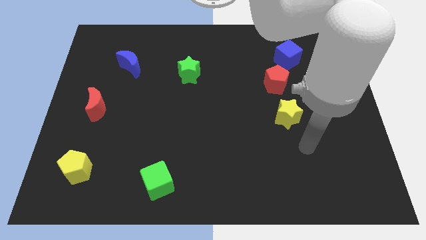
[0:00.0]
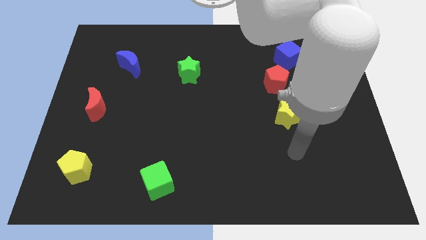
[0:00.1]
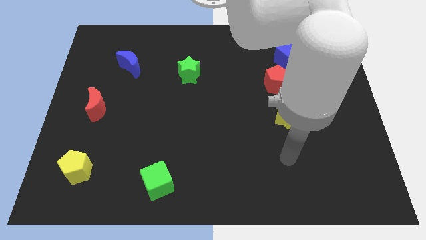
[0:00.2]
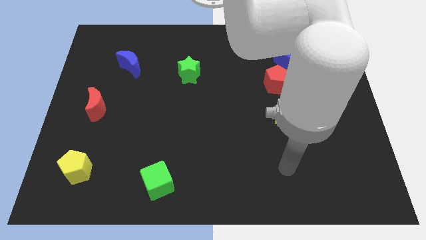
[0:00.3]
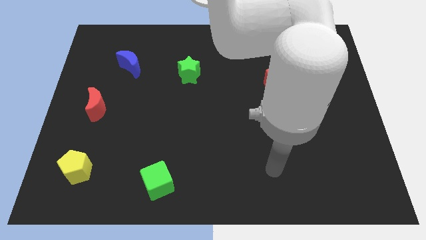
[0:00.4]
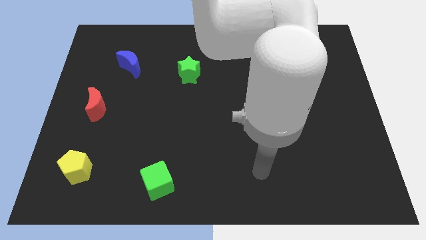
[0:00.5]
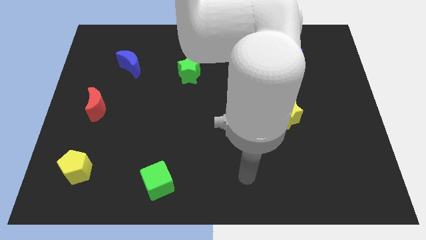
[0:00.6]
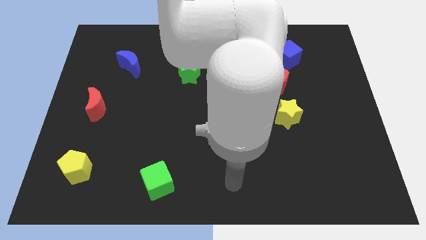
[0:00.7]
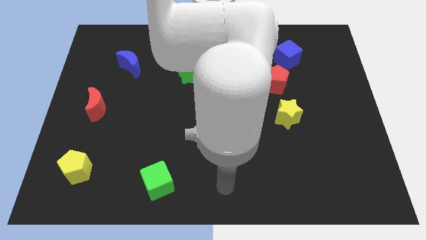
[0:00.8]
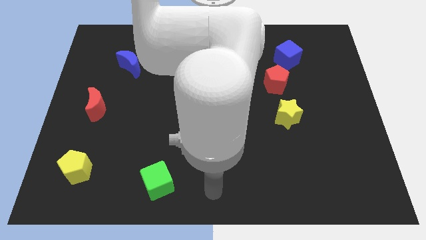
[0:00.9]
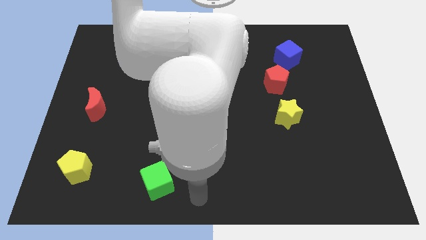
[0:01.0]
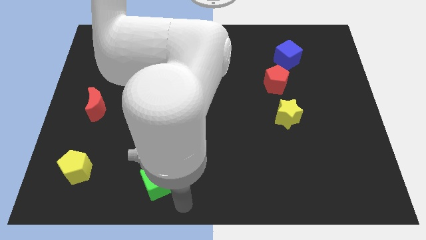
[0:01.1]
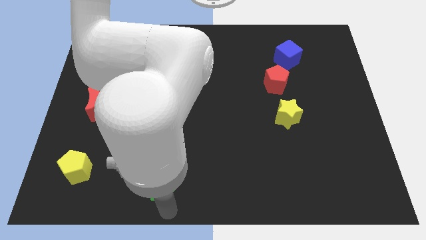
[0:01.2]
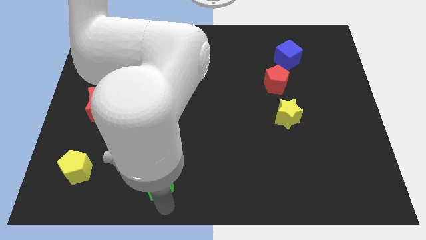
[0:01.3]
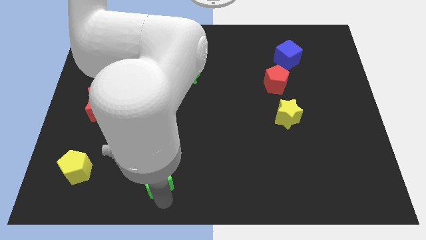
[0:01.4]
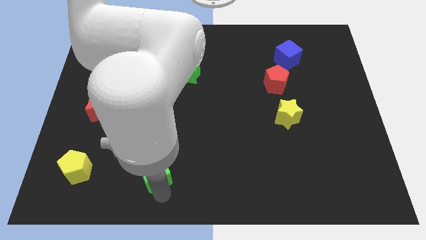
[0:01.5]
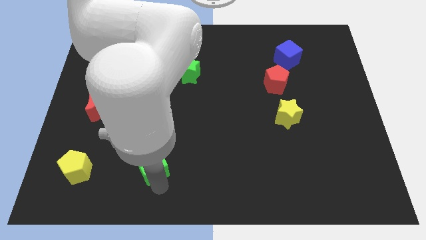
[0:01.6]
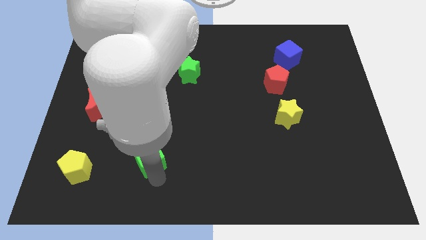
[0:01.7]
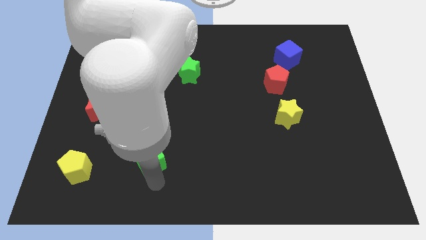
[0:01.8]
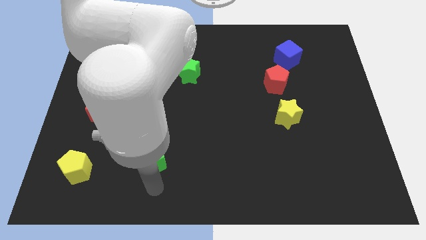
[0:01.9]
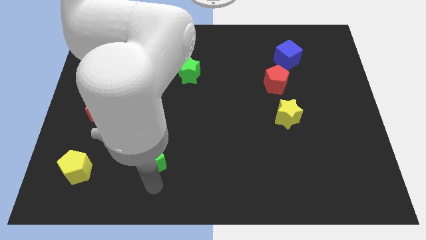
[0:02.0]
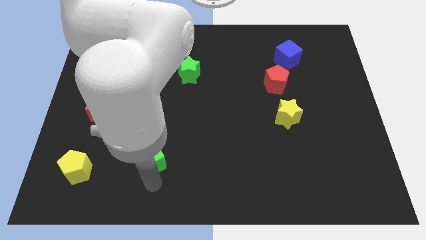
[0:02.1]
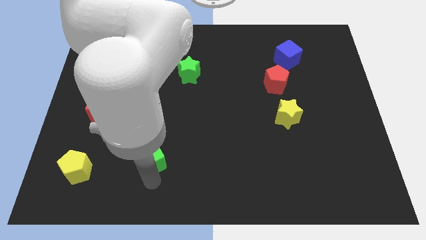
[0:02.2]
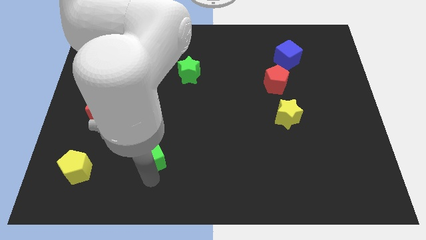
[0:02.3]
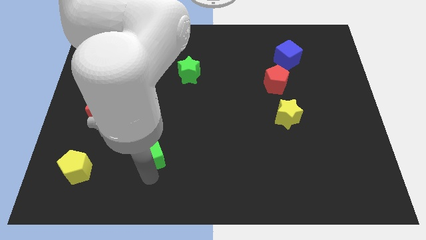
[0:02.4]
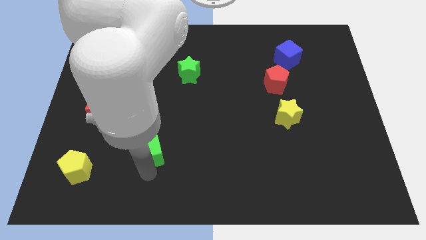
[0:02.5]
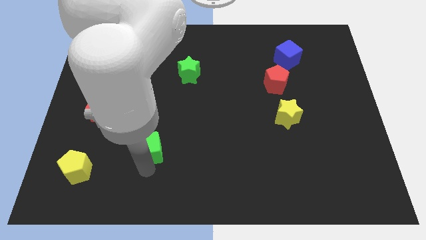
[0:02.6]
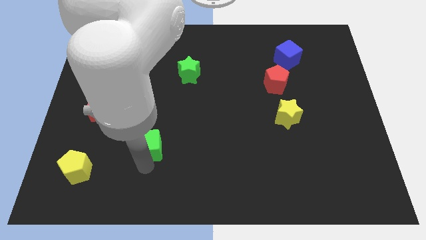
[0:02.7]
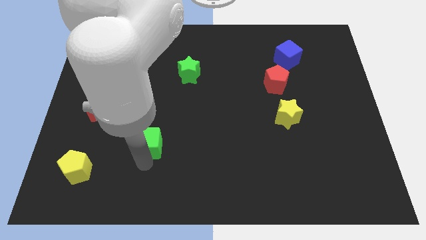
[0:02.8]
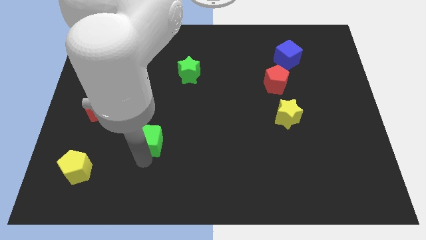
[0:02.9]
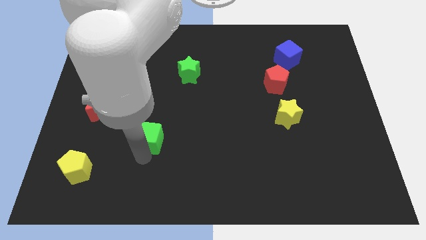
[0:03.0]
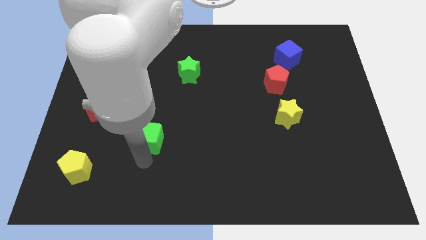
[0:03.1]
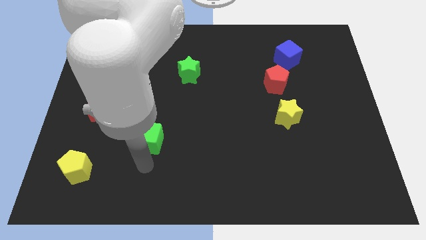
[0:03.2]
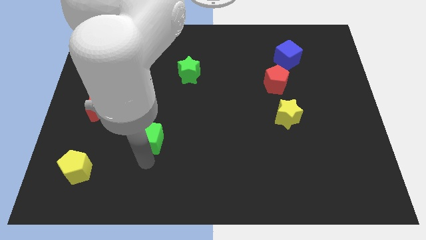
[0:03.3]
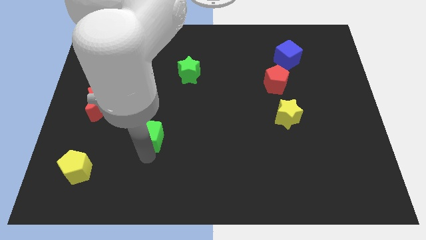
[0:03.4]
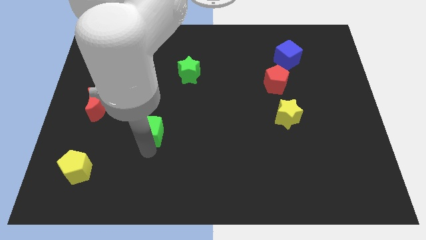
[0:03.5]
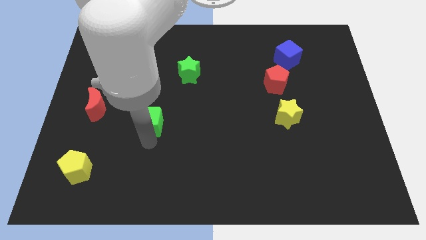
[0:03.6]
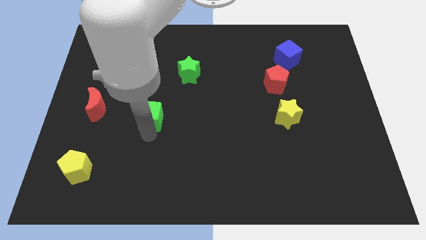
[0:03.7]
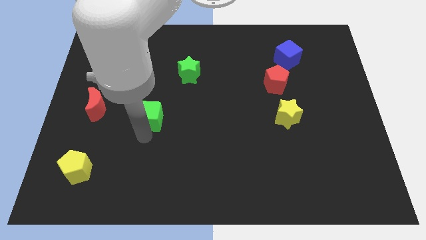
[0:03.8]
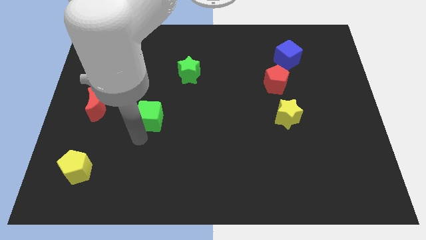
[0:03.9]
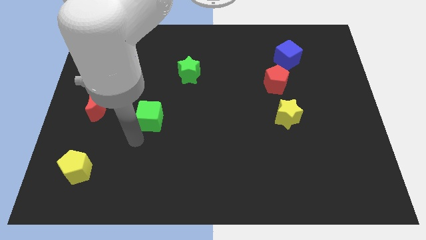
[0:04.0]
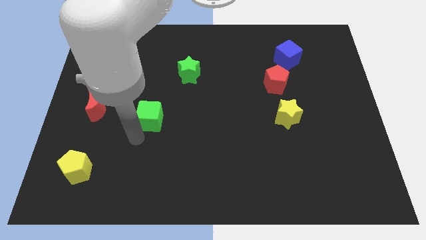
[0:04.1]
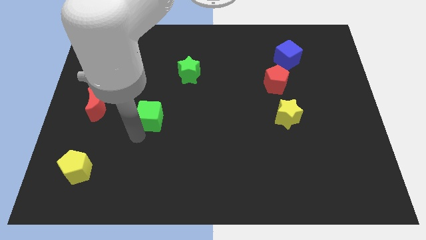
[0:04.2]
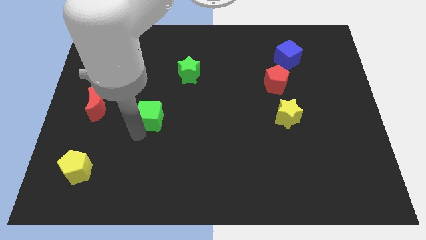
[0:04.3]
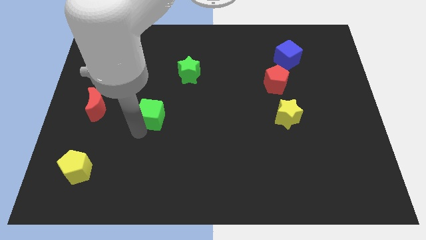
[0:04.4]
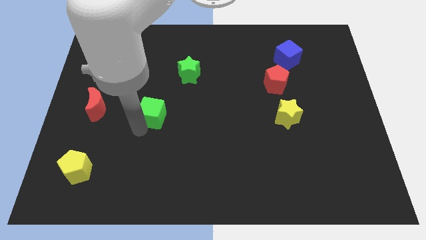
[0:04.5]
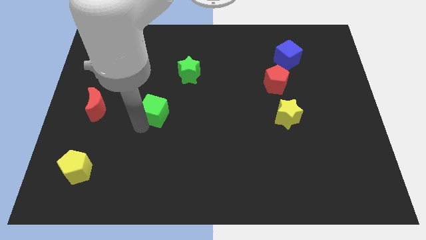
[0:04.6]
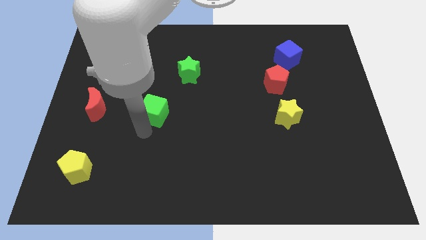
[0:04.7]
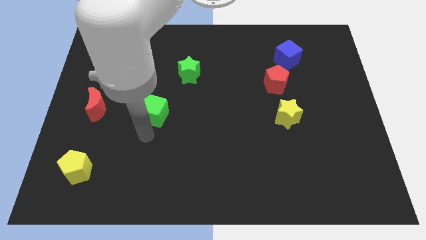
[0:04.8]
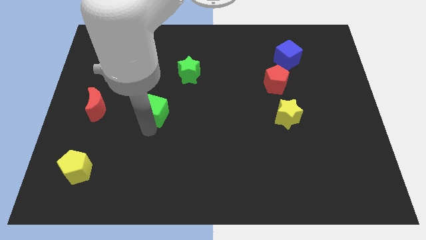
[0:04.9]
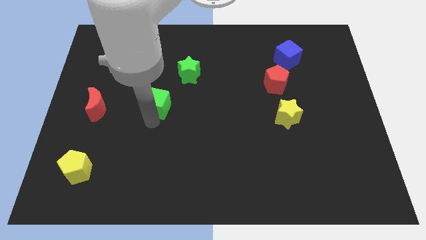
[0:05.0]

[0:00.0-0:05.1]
push the green cube up

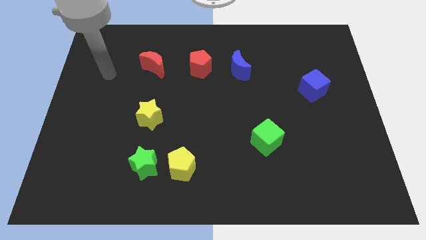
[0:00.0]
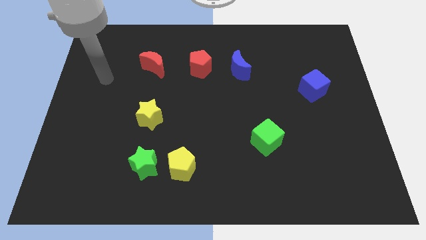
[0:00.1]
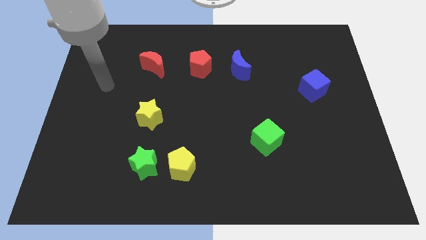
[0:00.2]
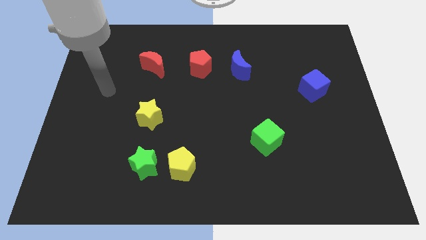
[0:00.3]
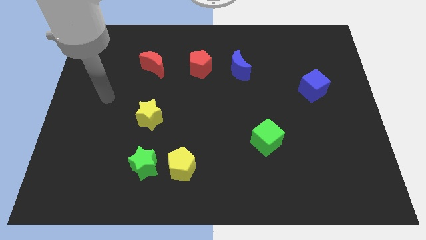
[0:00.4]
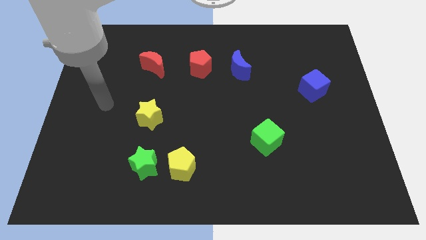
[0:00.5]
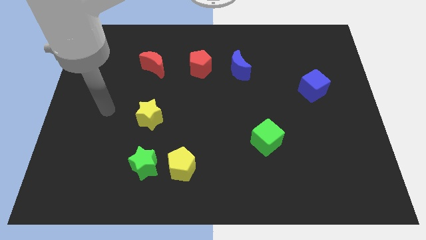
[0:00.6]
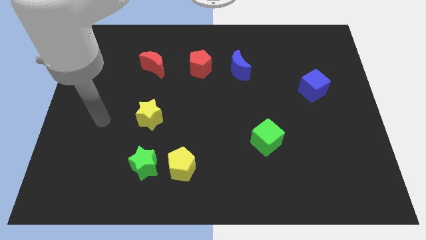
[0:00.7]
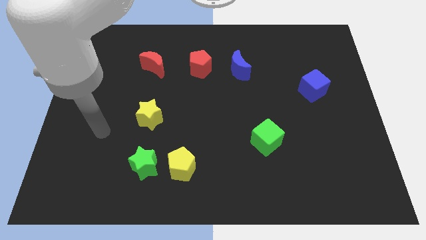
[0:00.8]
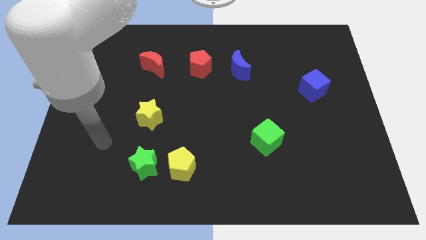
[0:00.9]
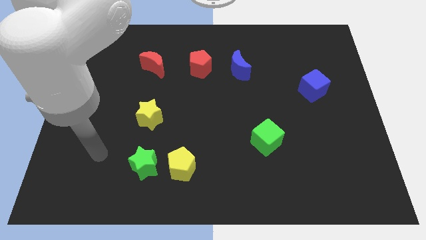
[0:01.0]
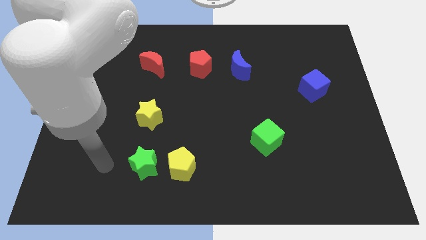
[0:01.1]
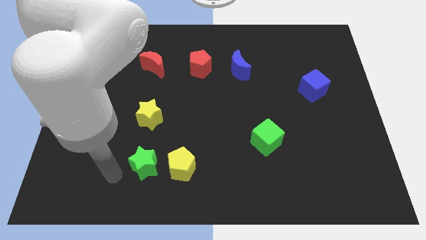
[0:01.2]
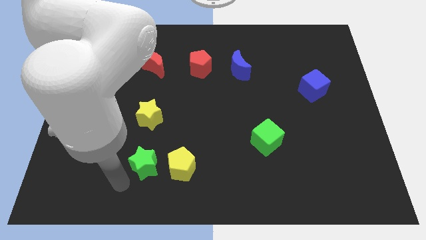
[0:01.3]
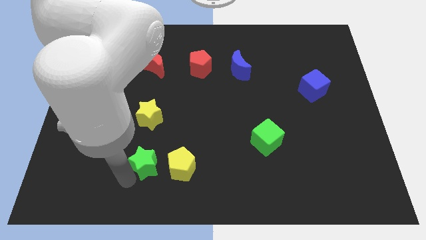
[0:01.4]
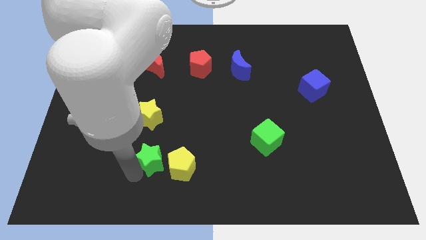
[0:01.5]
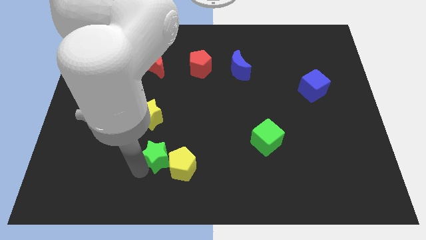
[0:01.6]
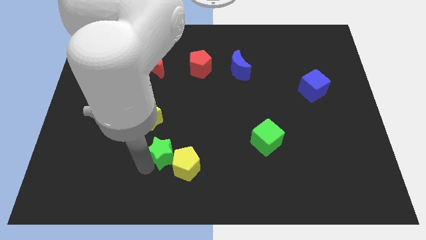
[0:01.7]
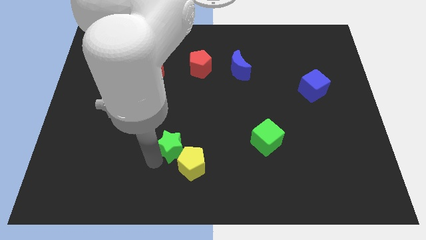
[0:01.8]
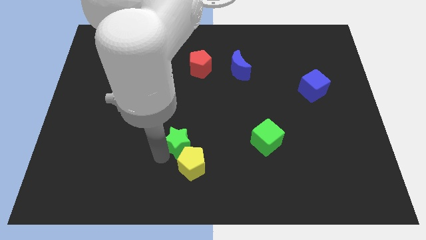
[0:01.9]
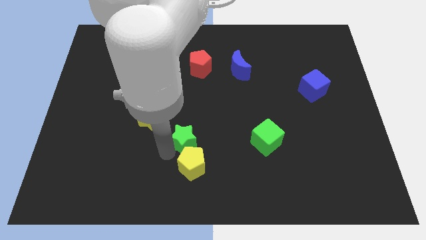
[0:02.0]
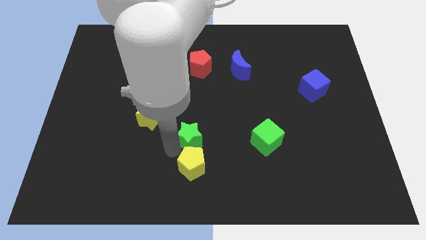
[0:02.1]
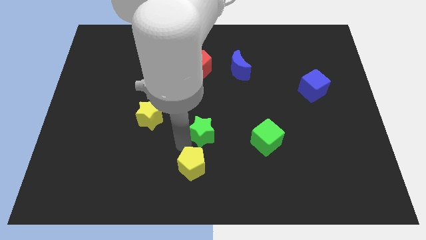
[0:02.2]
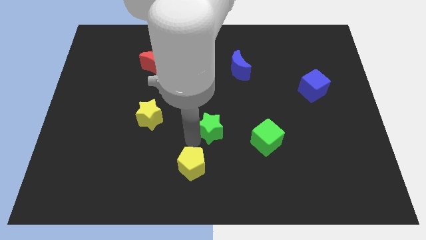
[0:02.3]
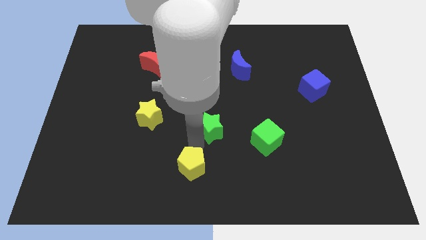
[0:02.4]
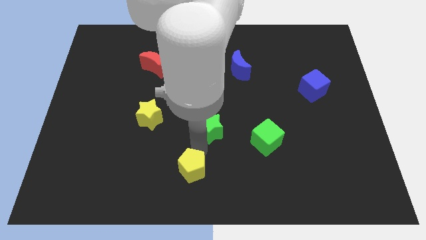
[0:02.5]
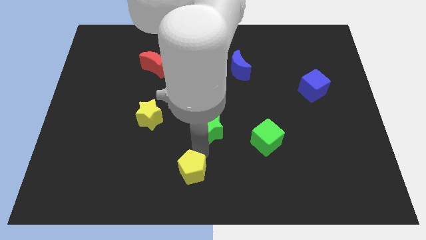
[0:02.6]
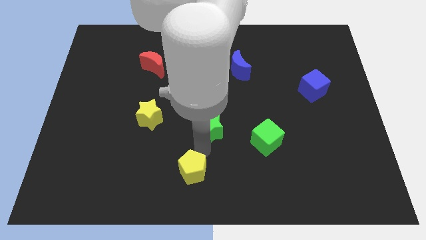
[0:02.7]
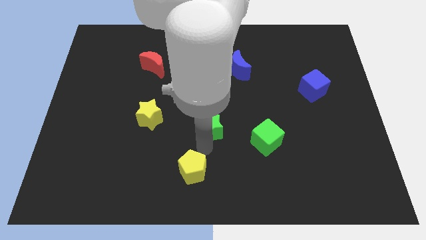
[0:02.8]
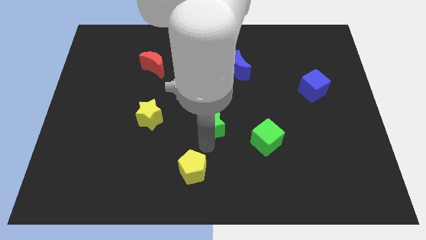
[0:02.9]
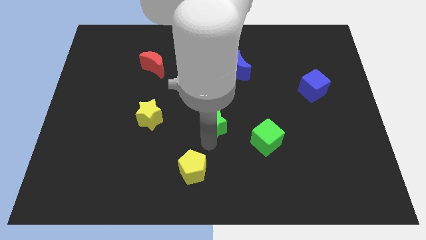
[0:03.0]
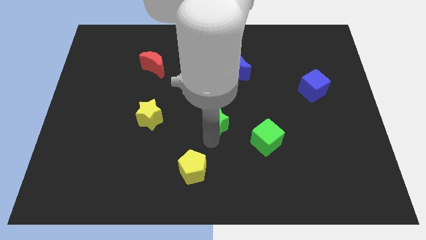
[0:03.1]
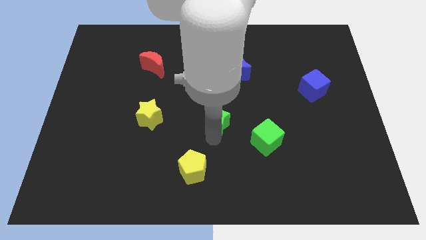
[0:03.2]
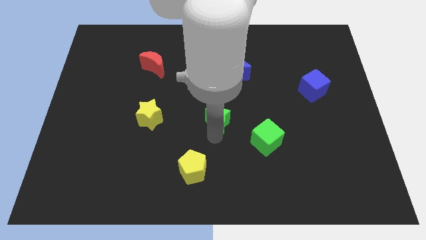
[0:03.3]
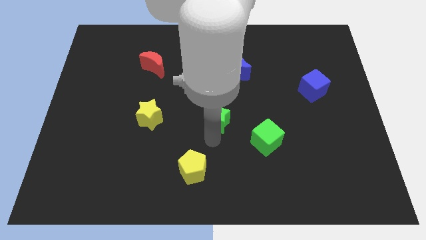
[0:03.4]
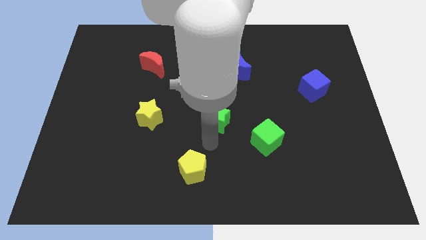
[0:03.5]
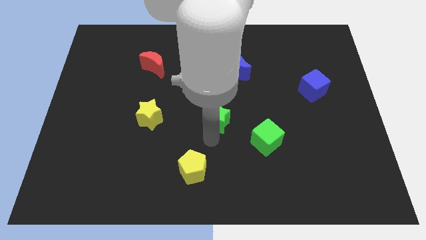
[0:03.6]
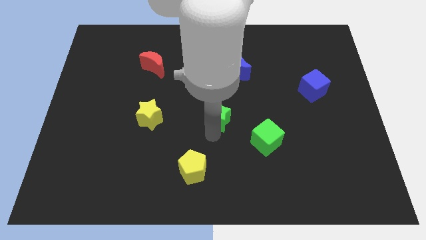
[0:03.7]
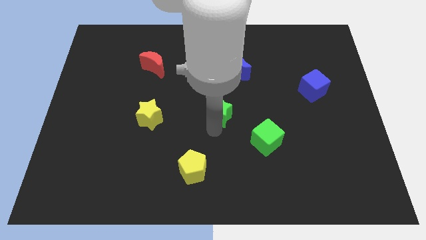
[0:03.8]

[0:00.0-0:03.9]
slide the green star up and then to the right
